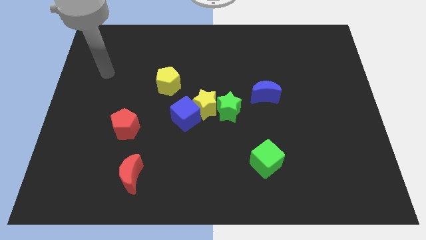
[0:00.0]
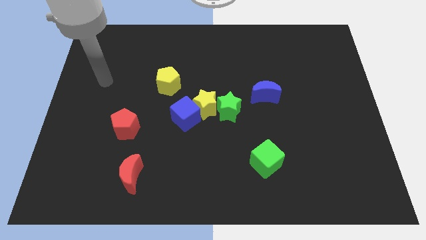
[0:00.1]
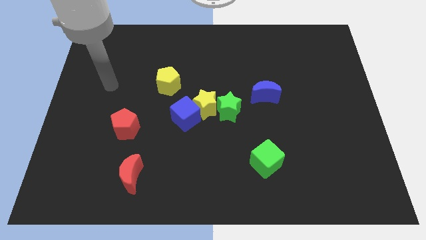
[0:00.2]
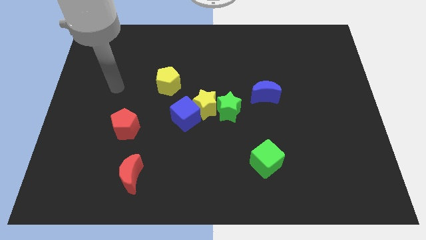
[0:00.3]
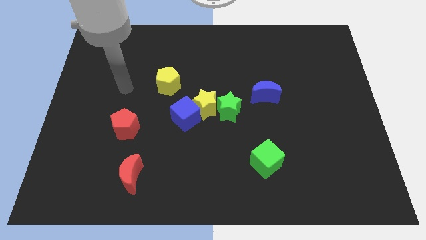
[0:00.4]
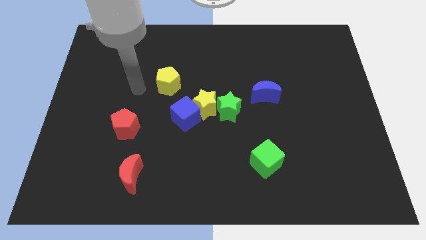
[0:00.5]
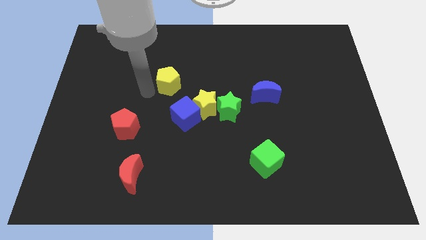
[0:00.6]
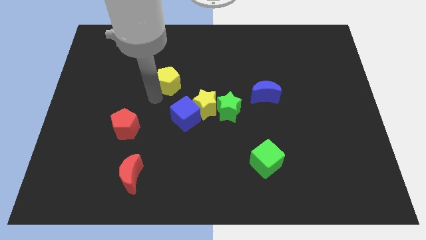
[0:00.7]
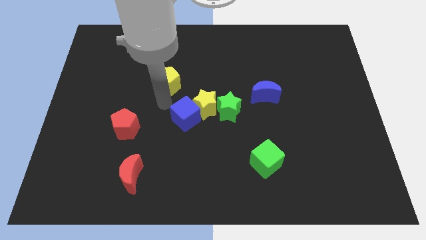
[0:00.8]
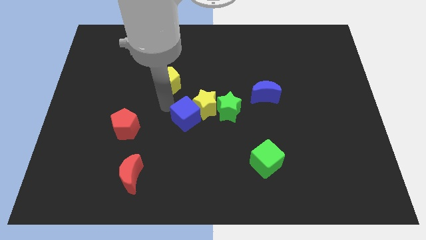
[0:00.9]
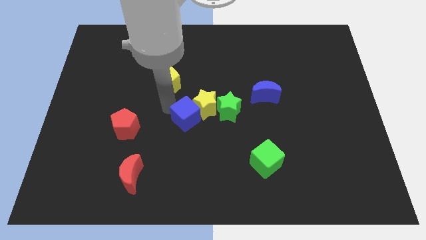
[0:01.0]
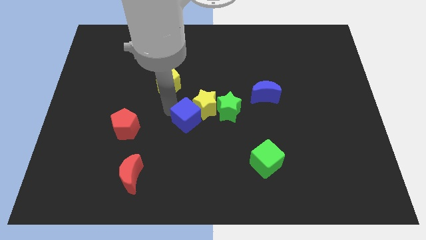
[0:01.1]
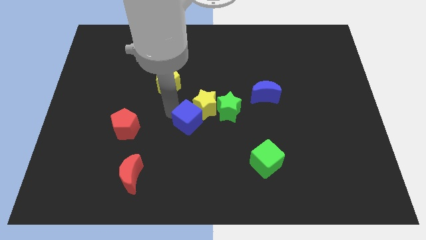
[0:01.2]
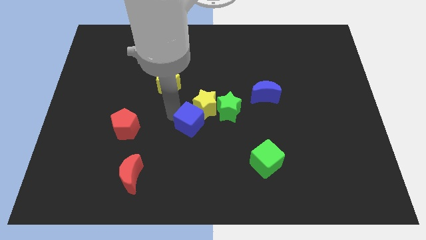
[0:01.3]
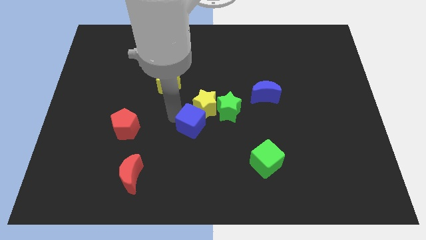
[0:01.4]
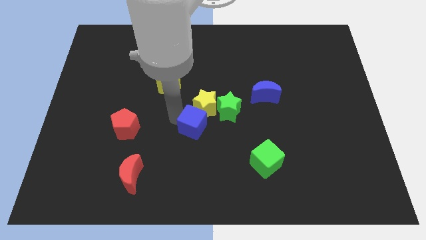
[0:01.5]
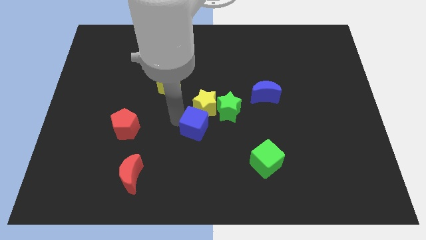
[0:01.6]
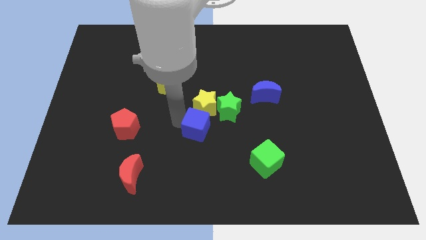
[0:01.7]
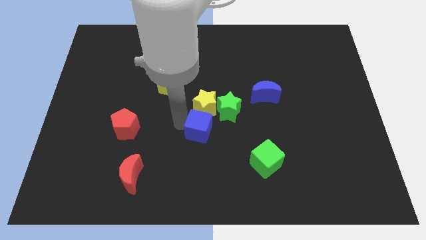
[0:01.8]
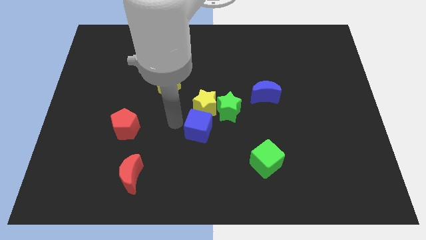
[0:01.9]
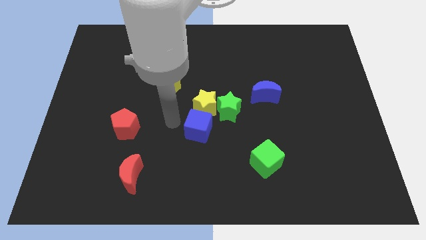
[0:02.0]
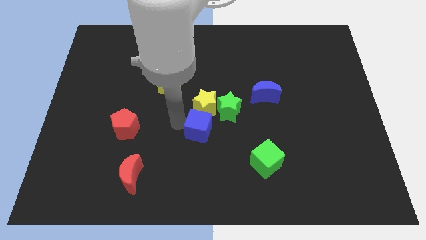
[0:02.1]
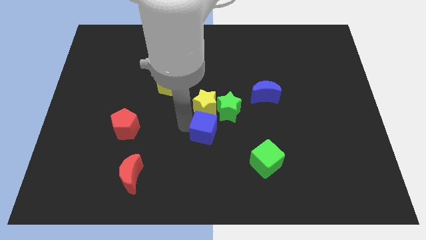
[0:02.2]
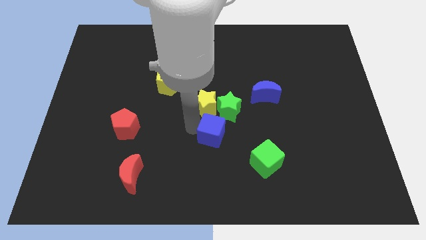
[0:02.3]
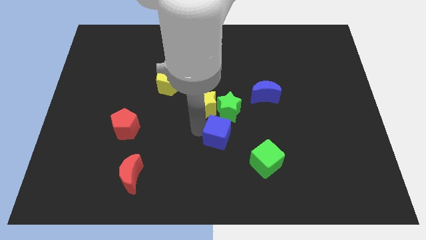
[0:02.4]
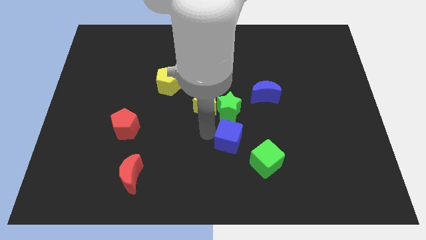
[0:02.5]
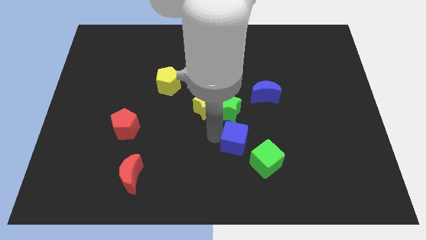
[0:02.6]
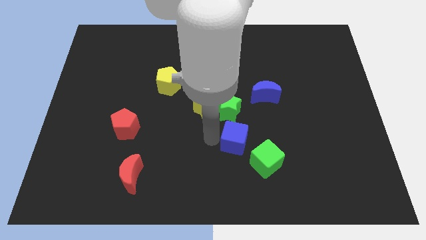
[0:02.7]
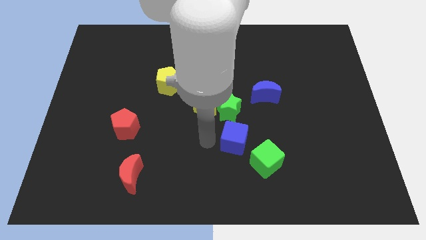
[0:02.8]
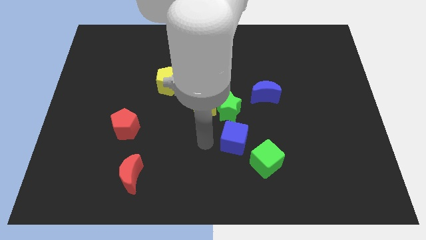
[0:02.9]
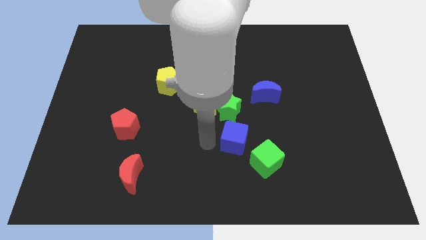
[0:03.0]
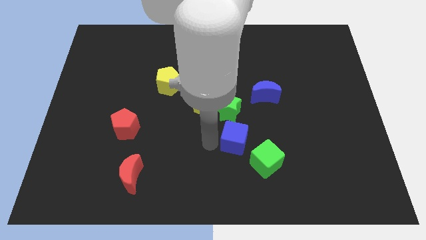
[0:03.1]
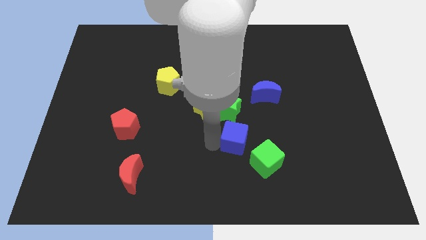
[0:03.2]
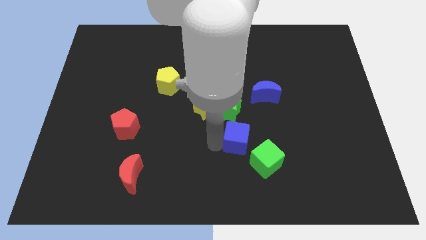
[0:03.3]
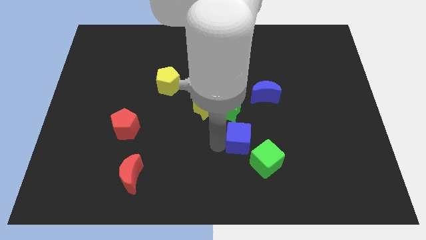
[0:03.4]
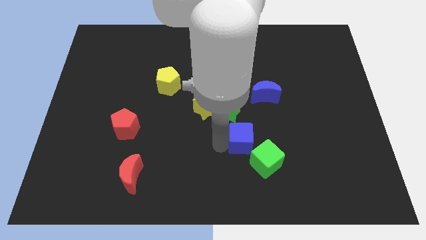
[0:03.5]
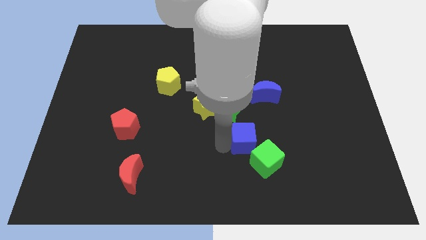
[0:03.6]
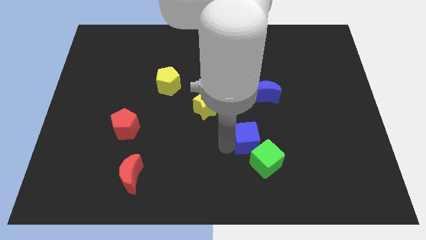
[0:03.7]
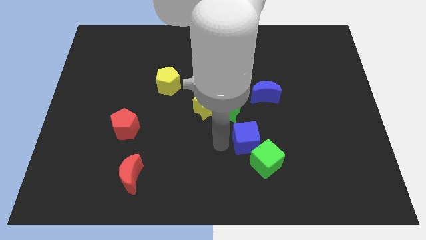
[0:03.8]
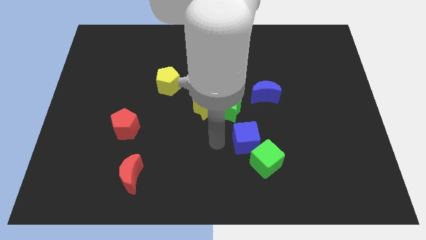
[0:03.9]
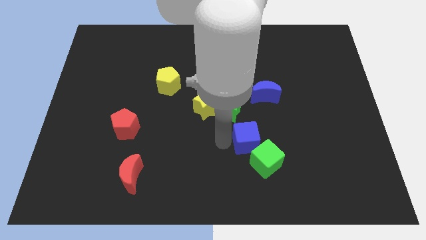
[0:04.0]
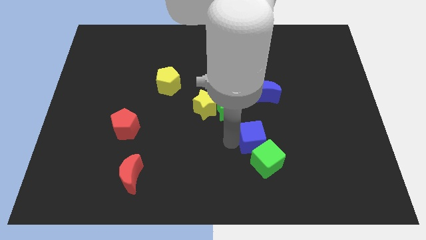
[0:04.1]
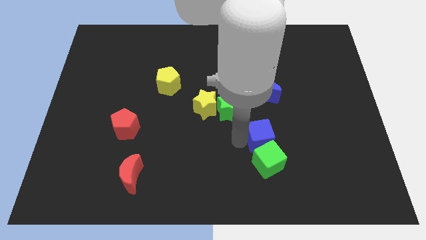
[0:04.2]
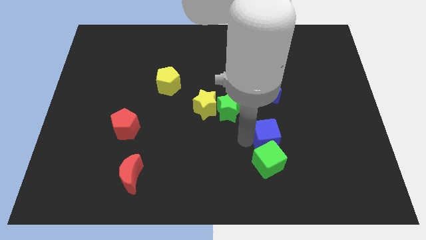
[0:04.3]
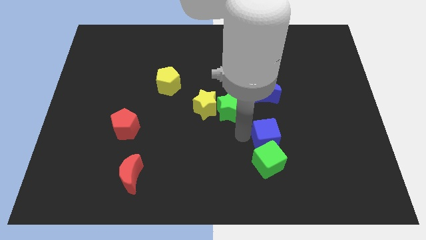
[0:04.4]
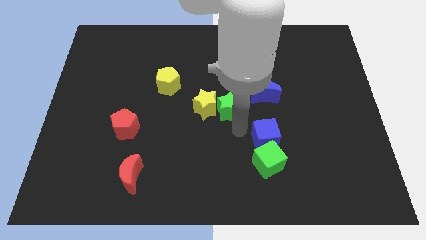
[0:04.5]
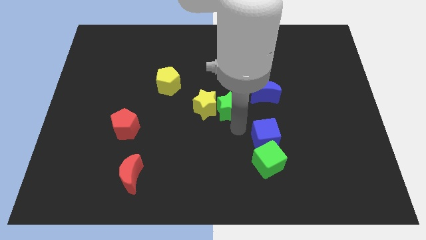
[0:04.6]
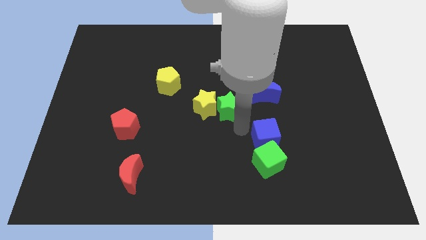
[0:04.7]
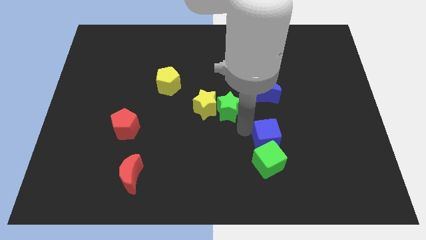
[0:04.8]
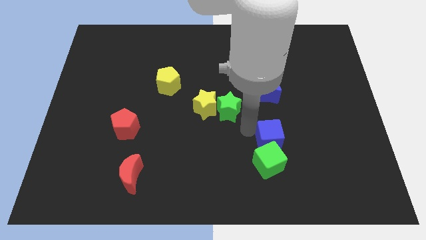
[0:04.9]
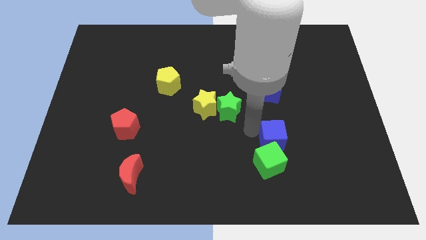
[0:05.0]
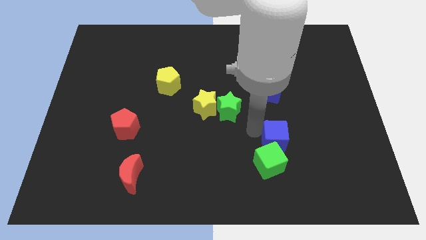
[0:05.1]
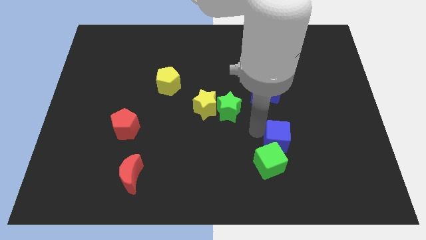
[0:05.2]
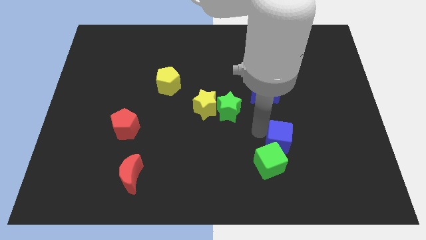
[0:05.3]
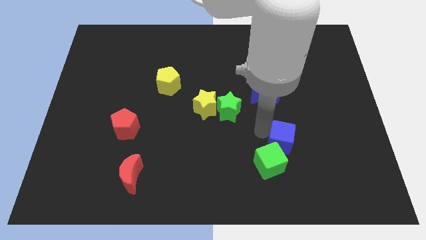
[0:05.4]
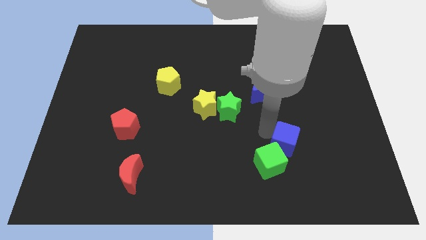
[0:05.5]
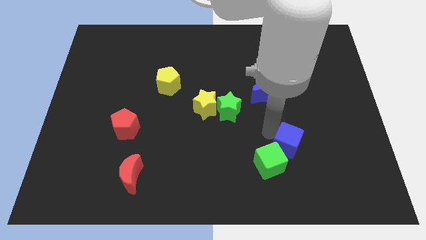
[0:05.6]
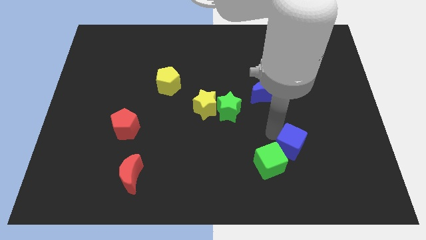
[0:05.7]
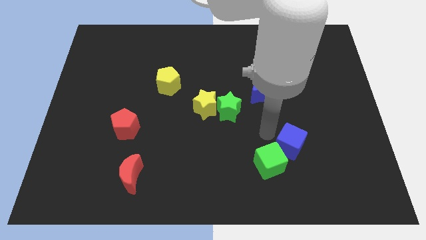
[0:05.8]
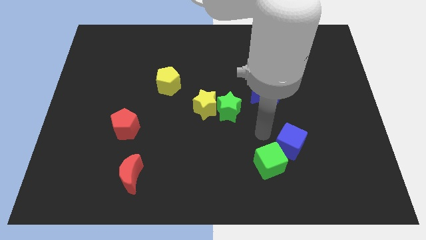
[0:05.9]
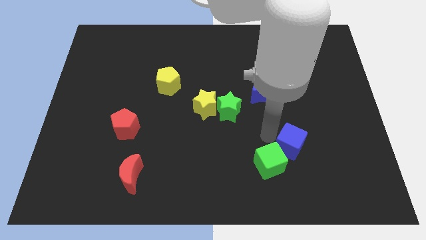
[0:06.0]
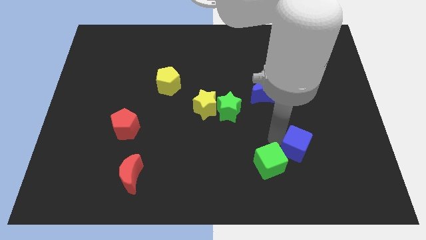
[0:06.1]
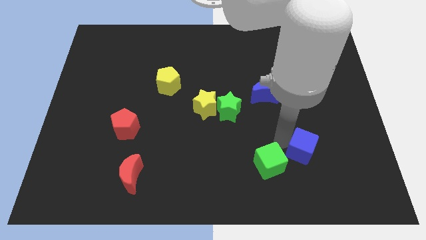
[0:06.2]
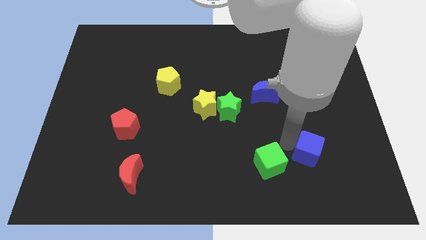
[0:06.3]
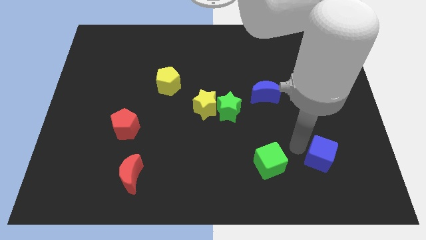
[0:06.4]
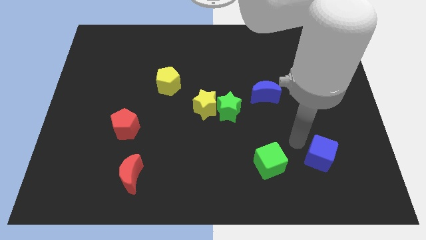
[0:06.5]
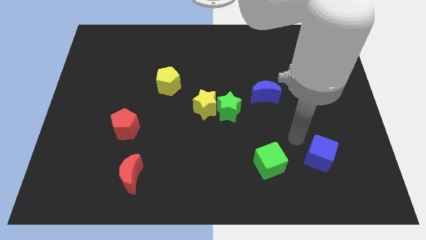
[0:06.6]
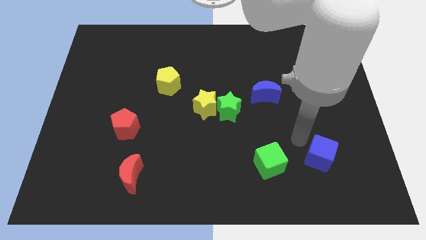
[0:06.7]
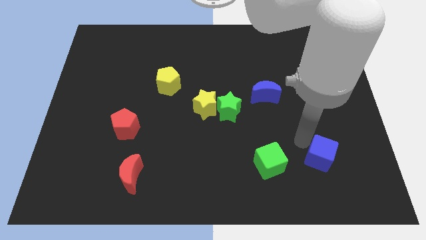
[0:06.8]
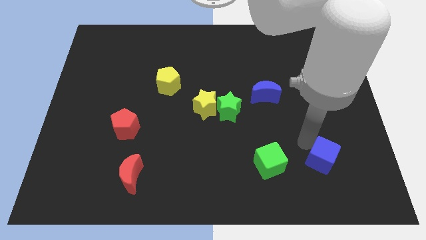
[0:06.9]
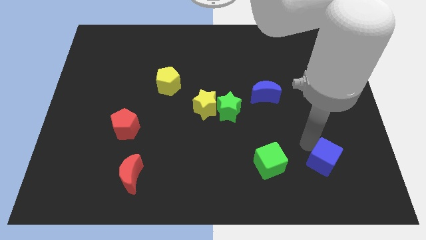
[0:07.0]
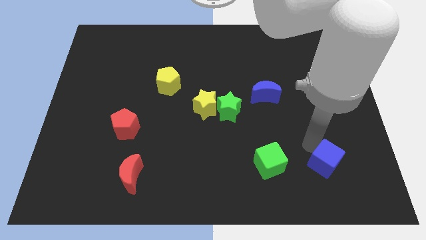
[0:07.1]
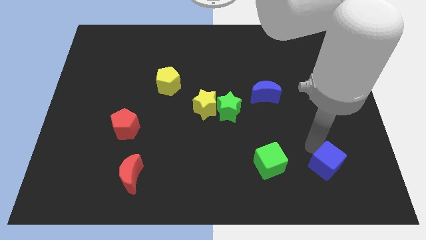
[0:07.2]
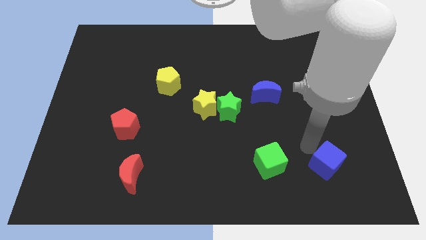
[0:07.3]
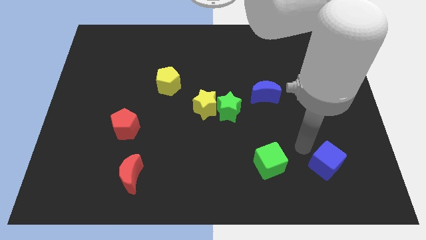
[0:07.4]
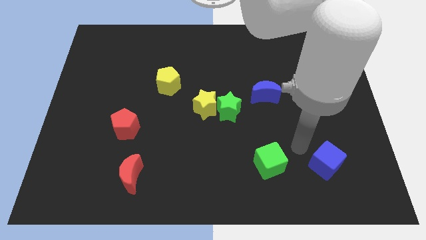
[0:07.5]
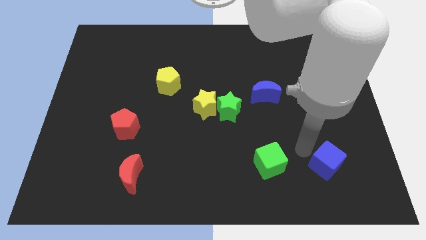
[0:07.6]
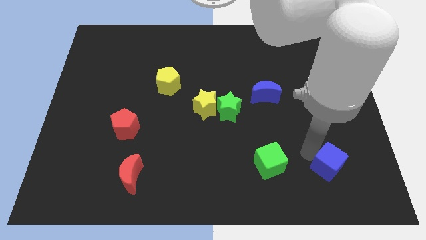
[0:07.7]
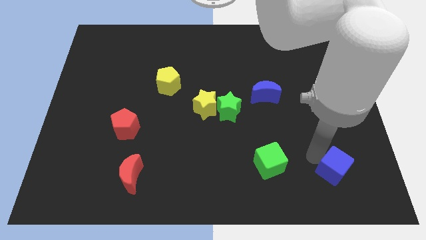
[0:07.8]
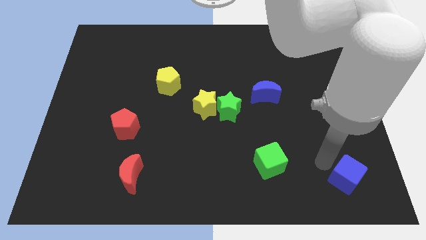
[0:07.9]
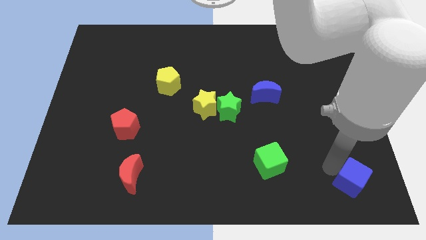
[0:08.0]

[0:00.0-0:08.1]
move the blue cube to the bottom right
